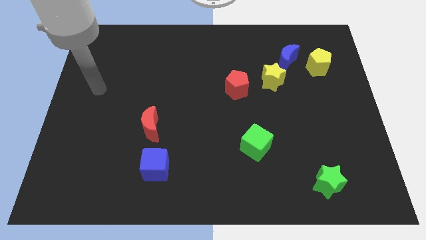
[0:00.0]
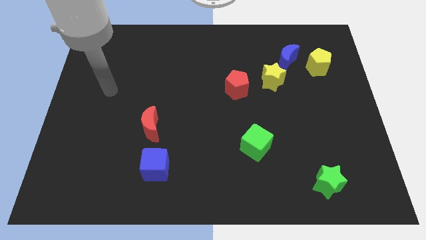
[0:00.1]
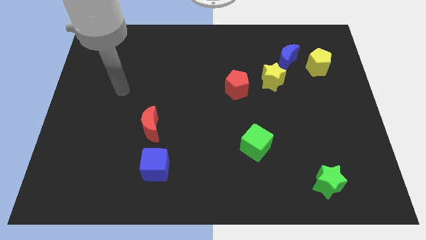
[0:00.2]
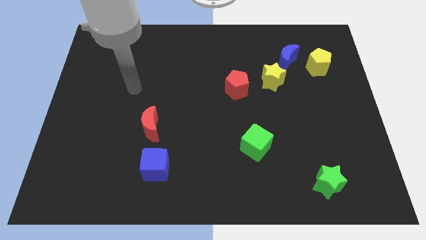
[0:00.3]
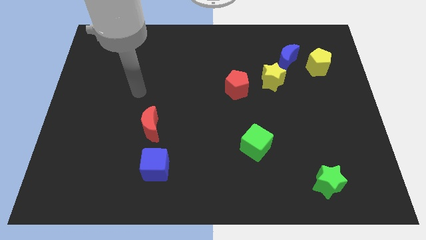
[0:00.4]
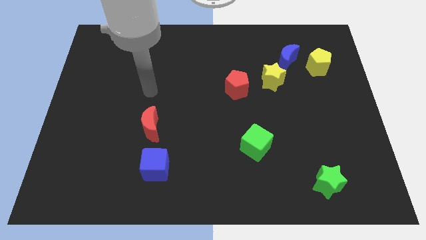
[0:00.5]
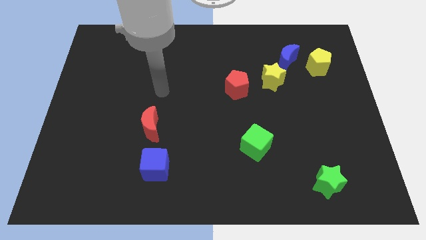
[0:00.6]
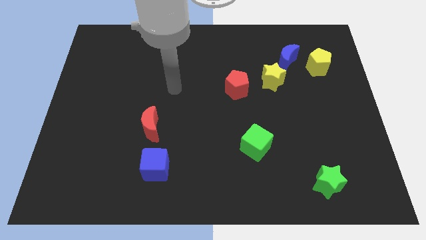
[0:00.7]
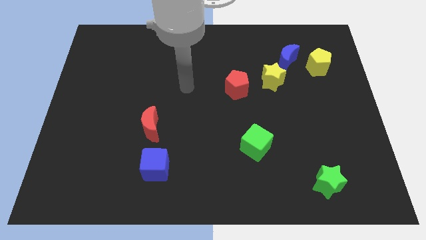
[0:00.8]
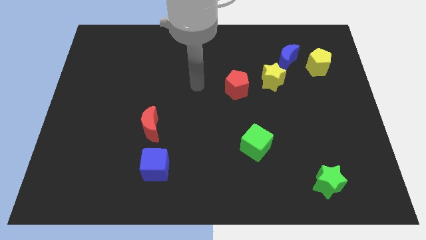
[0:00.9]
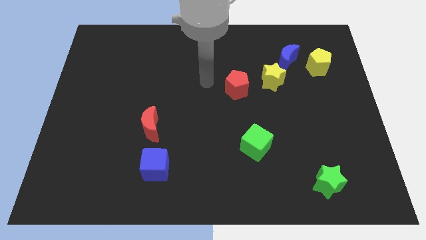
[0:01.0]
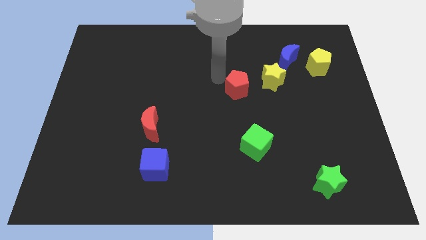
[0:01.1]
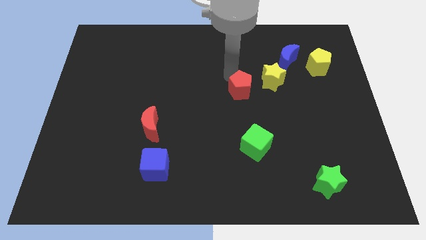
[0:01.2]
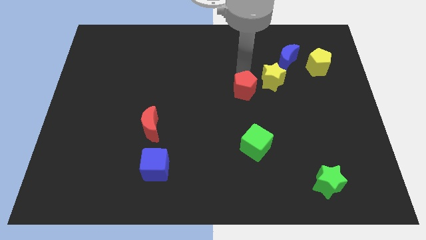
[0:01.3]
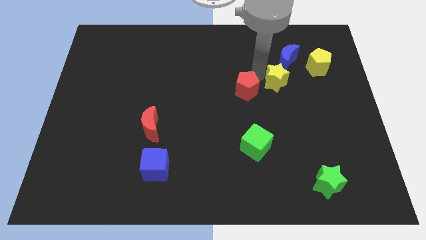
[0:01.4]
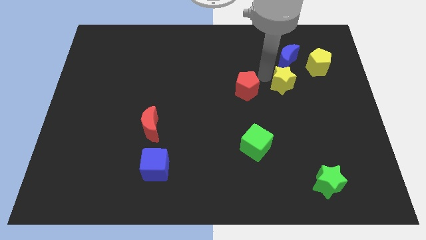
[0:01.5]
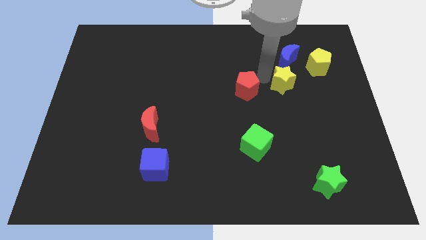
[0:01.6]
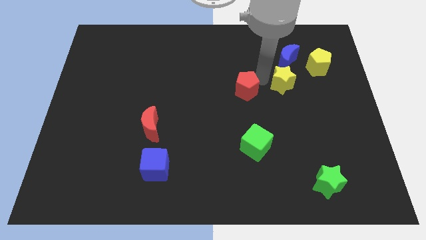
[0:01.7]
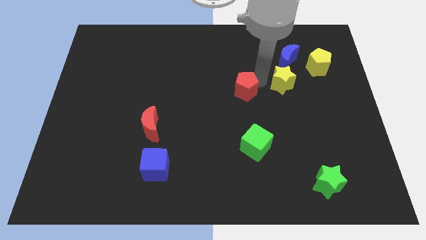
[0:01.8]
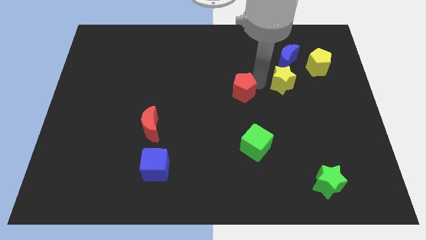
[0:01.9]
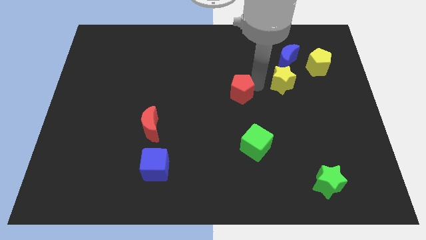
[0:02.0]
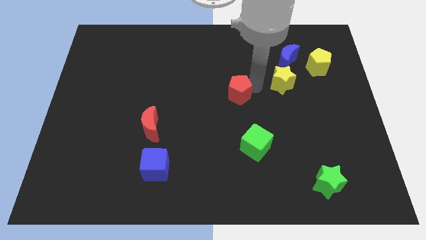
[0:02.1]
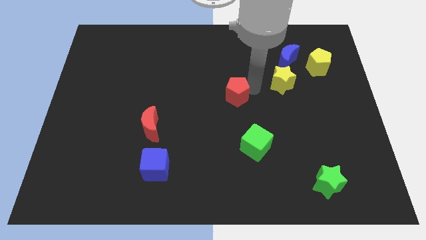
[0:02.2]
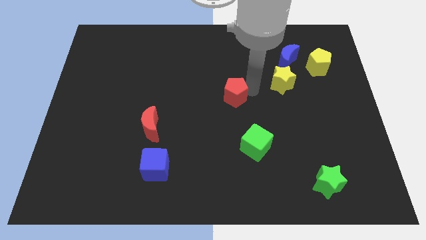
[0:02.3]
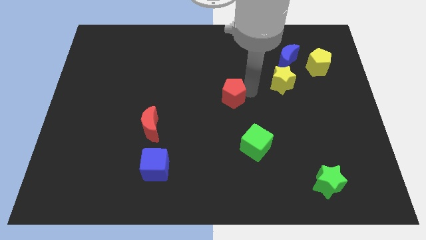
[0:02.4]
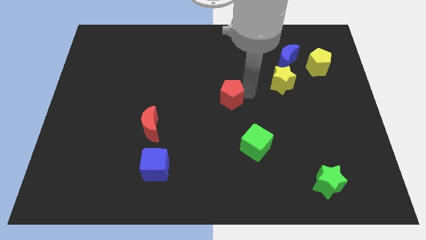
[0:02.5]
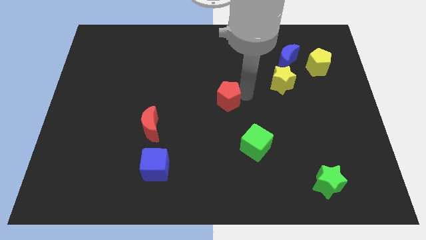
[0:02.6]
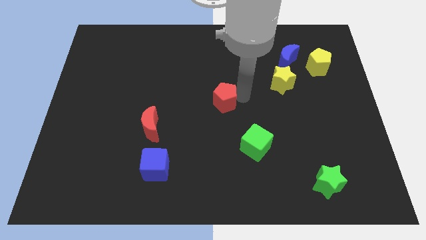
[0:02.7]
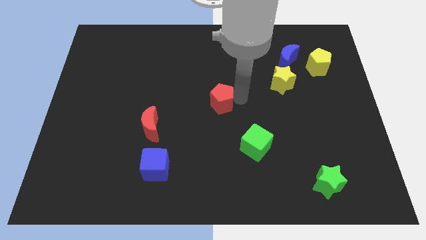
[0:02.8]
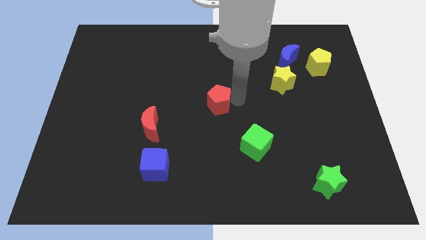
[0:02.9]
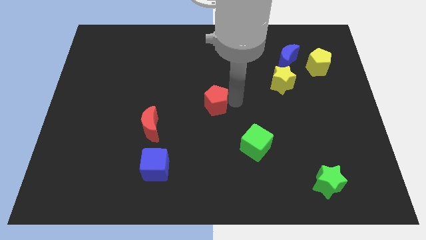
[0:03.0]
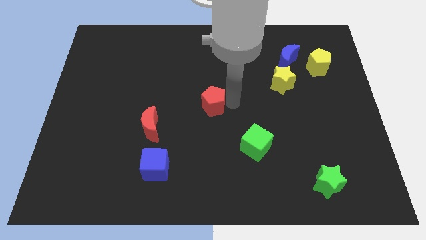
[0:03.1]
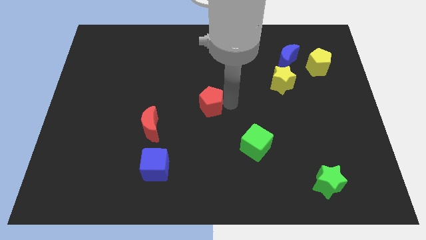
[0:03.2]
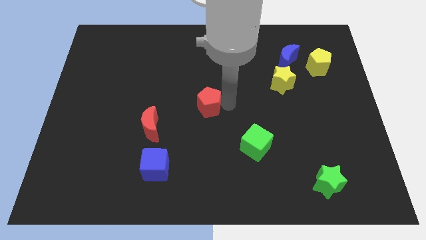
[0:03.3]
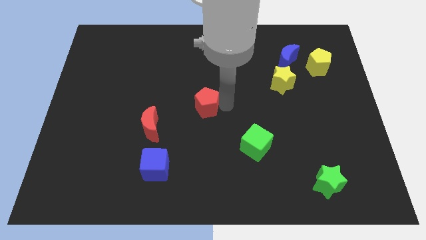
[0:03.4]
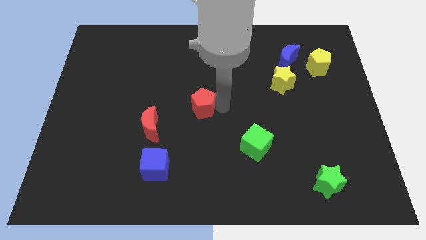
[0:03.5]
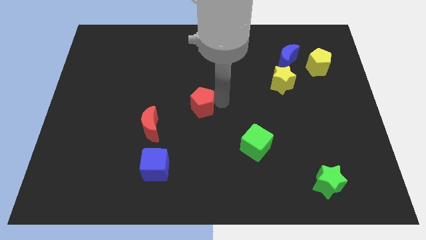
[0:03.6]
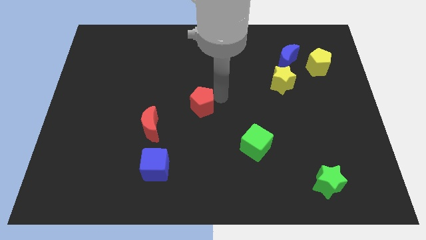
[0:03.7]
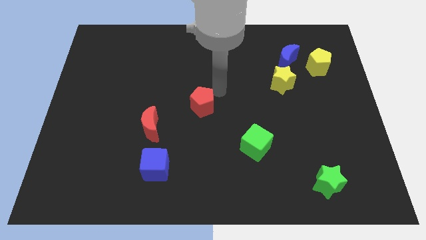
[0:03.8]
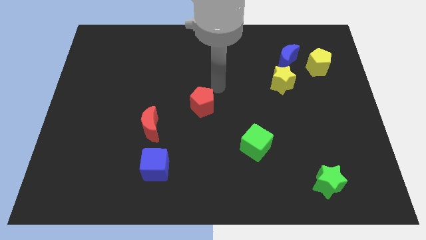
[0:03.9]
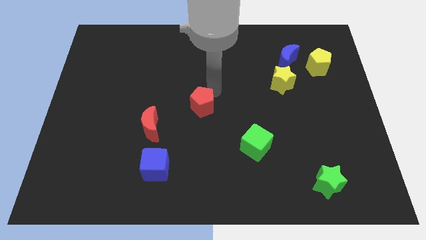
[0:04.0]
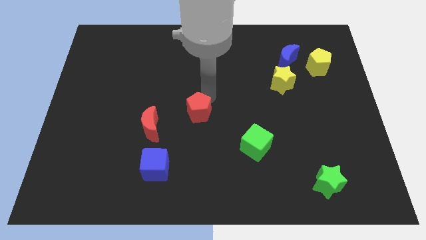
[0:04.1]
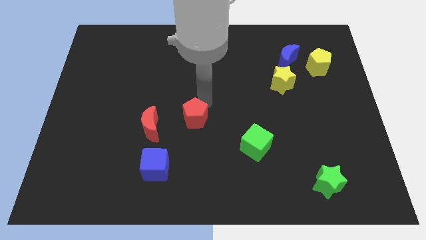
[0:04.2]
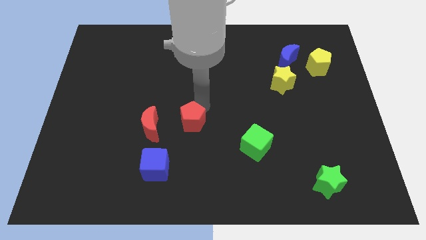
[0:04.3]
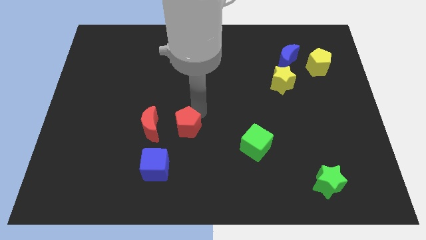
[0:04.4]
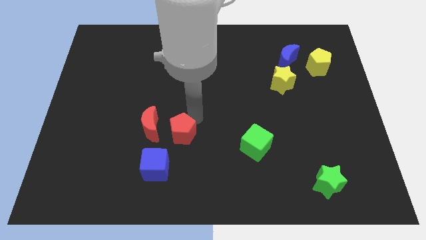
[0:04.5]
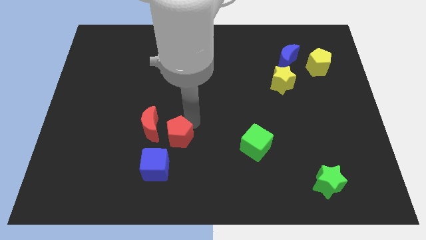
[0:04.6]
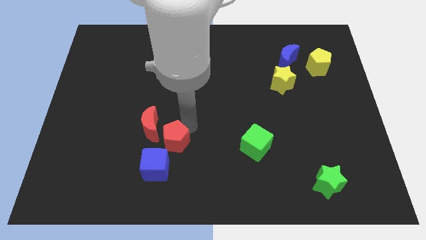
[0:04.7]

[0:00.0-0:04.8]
slide the red pentagon down and then left

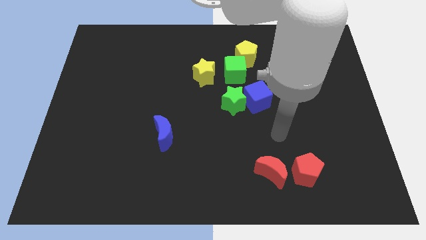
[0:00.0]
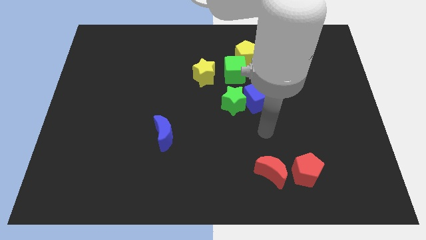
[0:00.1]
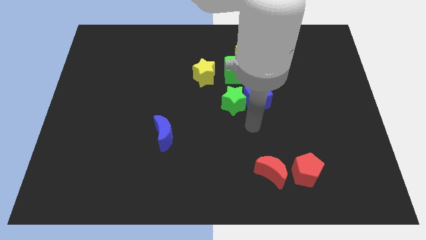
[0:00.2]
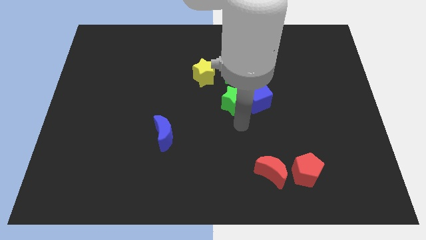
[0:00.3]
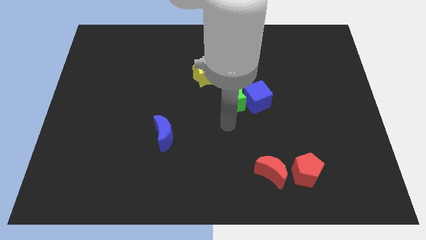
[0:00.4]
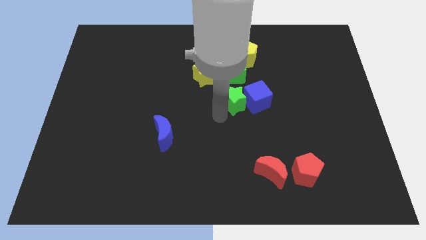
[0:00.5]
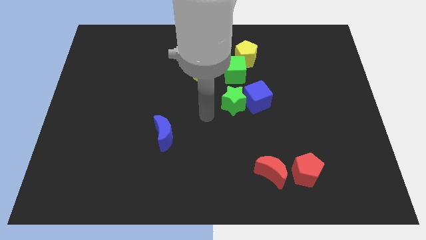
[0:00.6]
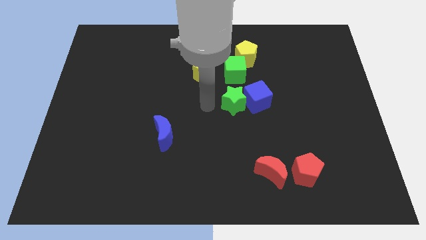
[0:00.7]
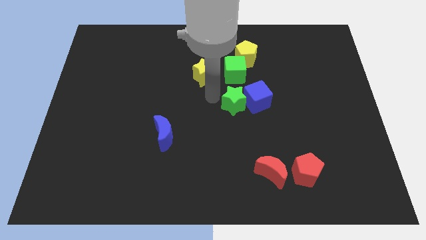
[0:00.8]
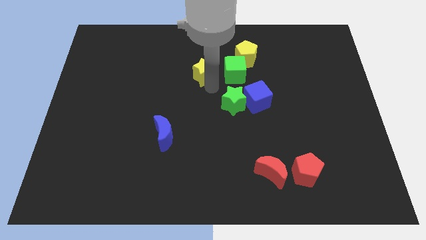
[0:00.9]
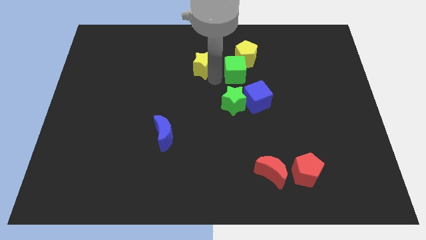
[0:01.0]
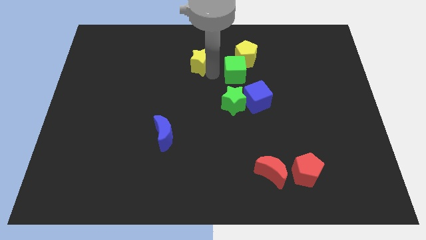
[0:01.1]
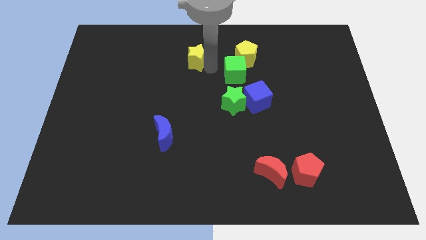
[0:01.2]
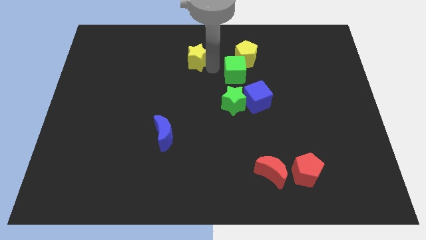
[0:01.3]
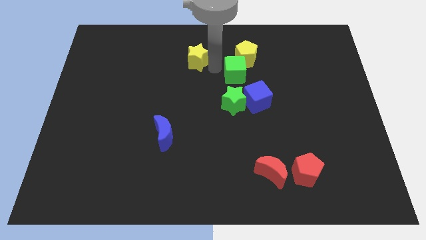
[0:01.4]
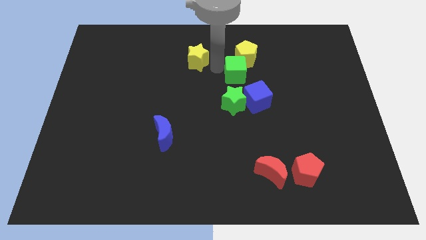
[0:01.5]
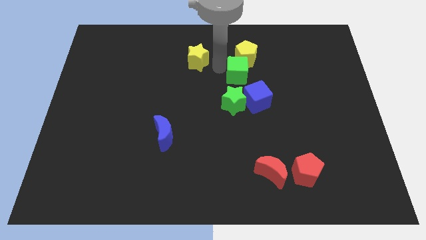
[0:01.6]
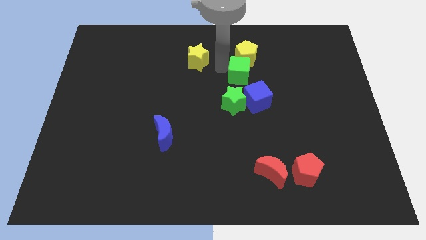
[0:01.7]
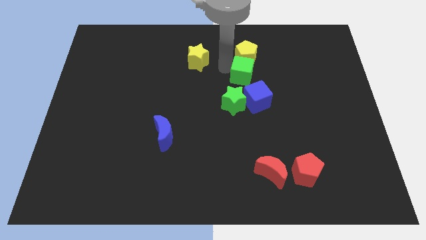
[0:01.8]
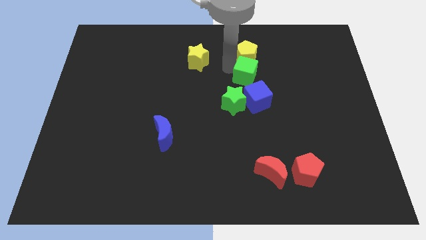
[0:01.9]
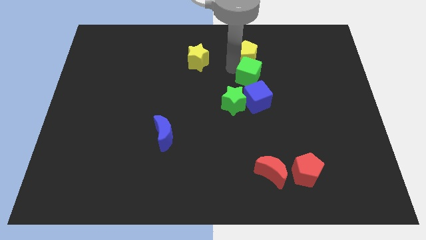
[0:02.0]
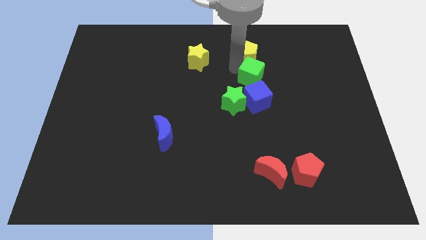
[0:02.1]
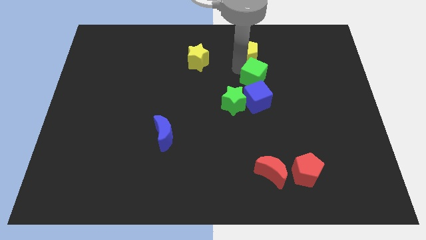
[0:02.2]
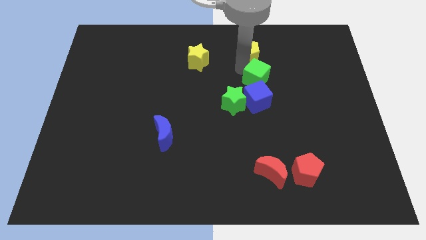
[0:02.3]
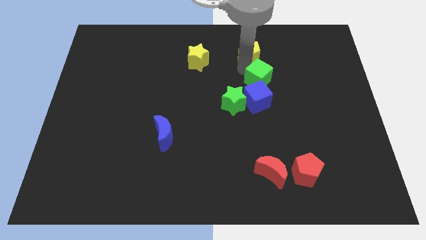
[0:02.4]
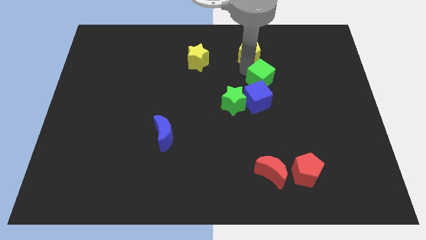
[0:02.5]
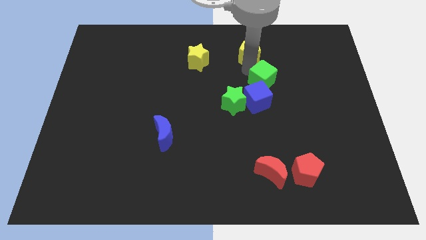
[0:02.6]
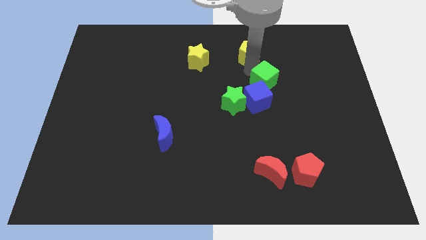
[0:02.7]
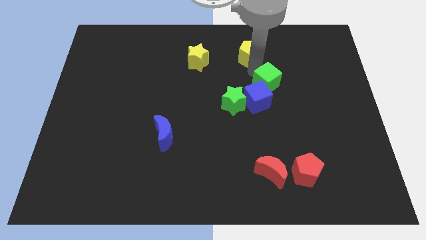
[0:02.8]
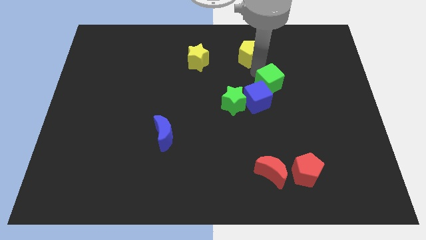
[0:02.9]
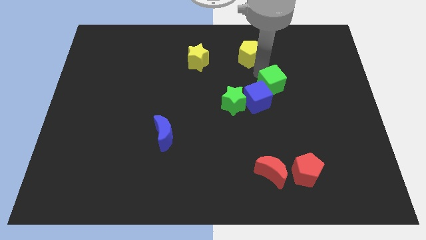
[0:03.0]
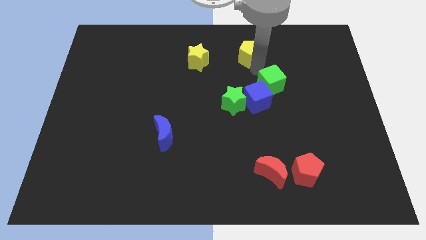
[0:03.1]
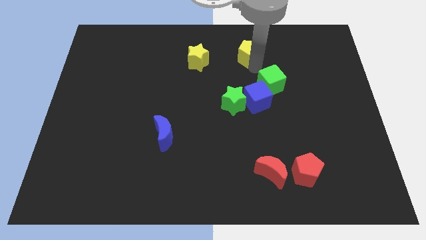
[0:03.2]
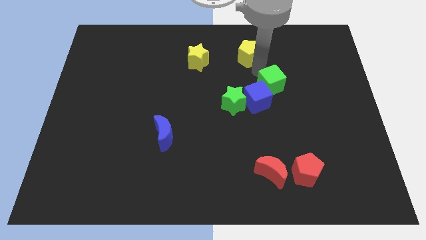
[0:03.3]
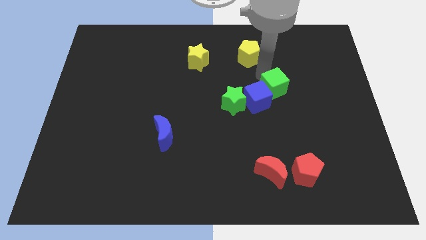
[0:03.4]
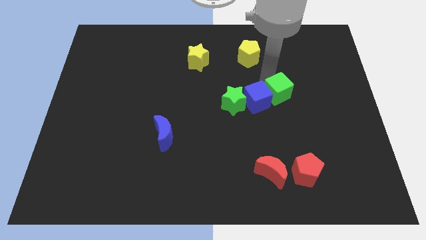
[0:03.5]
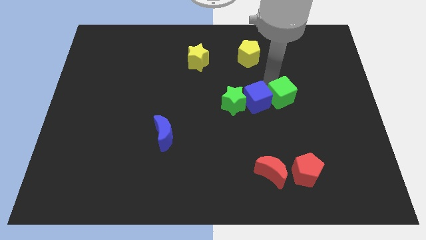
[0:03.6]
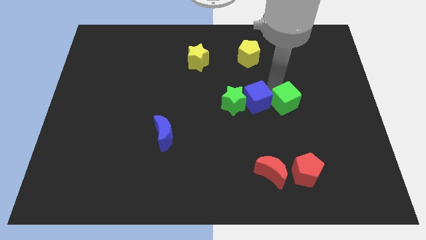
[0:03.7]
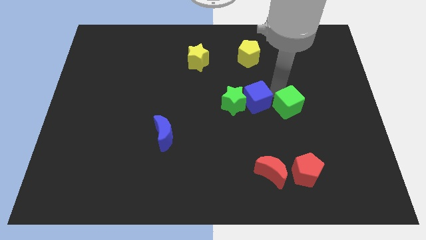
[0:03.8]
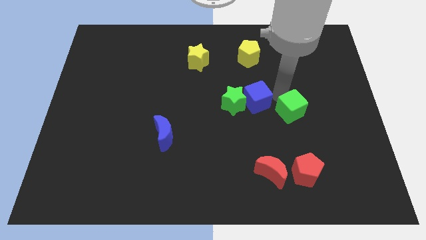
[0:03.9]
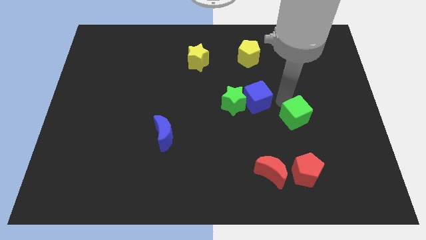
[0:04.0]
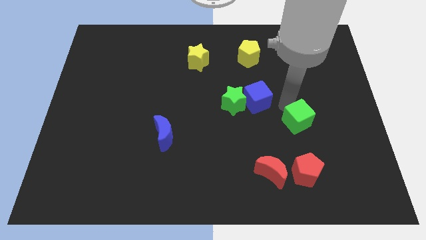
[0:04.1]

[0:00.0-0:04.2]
slide the green cube down and right diagonally
